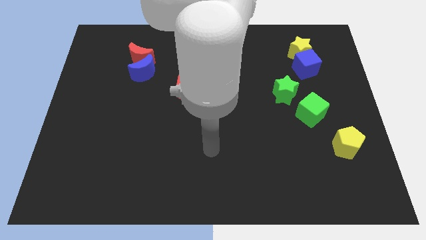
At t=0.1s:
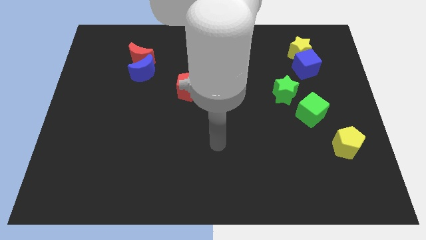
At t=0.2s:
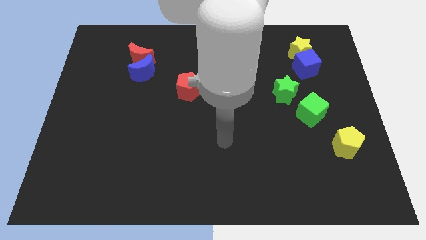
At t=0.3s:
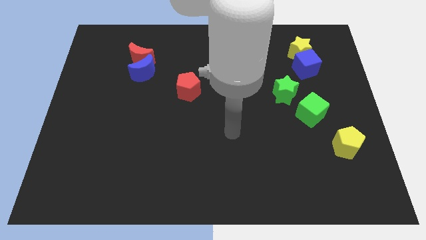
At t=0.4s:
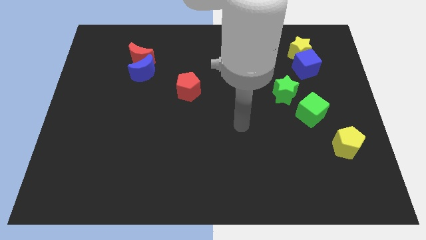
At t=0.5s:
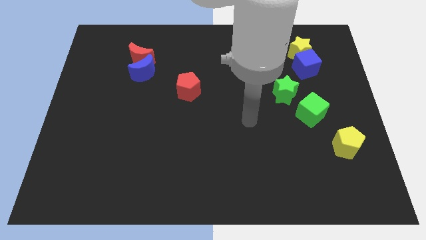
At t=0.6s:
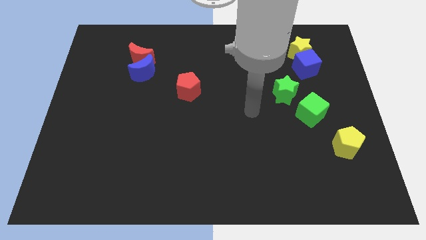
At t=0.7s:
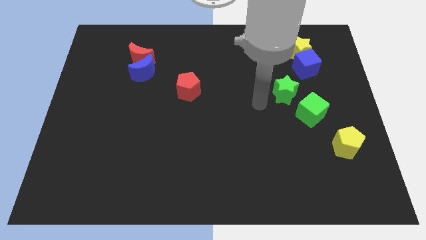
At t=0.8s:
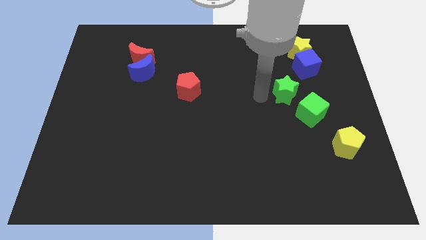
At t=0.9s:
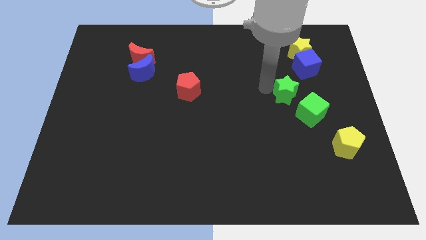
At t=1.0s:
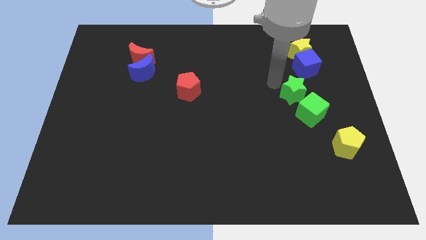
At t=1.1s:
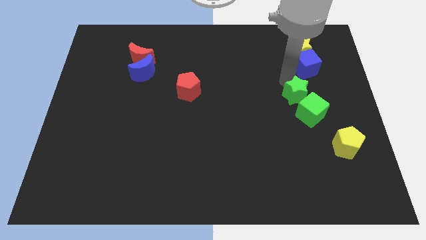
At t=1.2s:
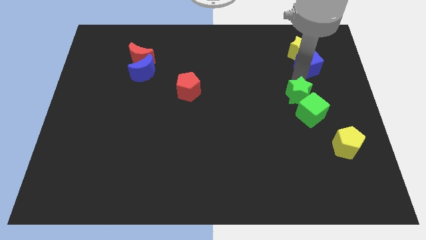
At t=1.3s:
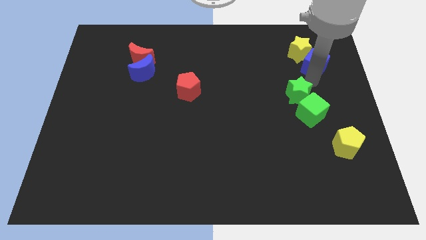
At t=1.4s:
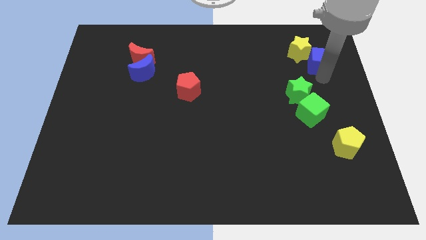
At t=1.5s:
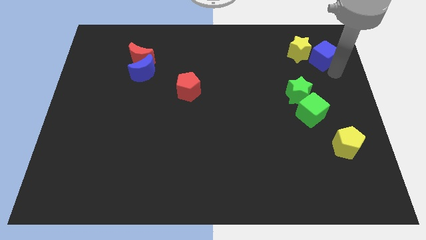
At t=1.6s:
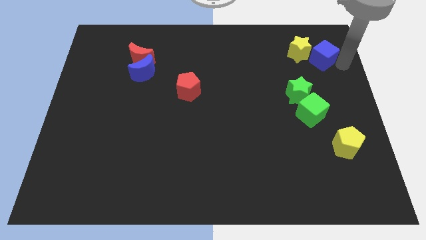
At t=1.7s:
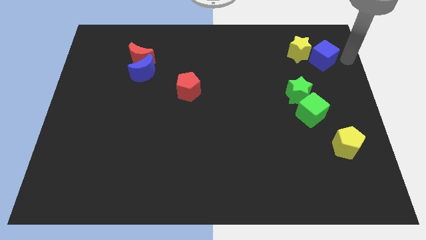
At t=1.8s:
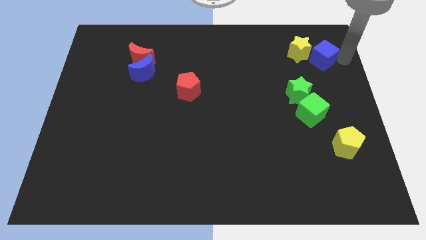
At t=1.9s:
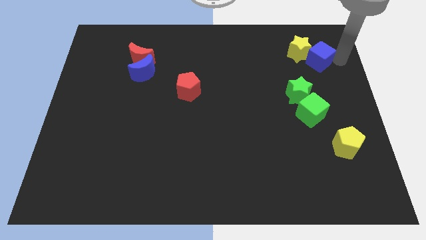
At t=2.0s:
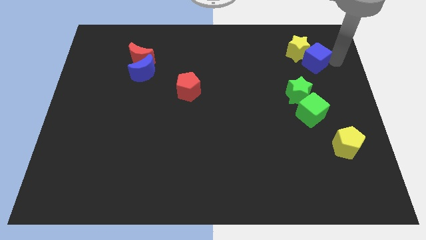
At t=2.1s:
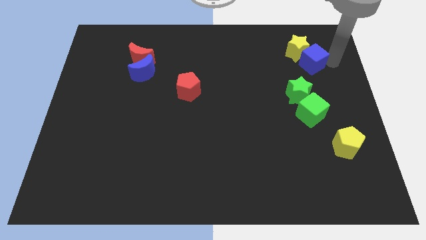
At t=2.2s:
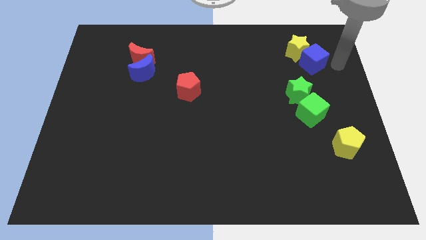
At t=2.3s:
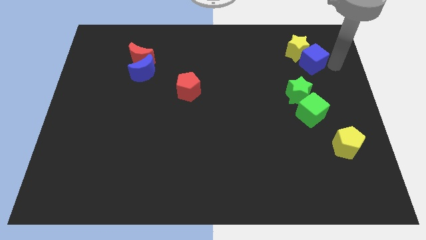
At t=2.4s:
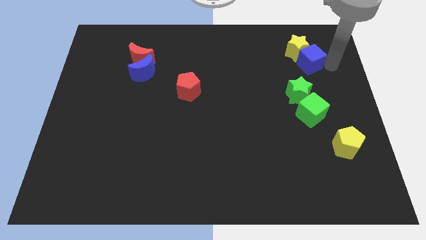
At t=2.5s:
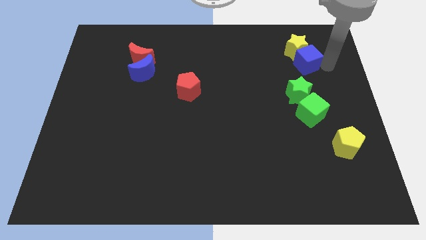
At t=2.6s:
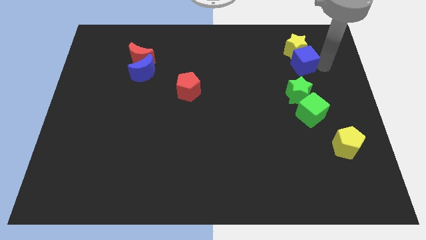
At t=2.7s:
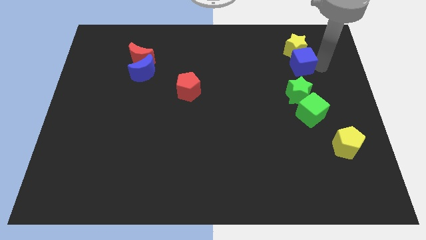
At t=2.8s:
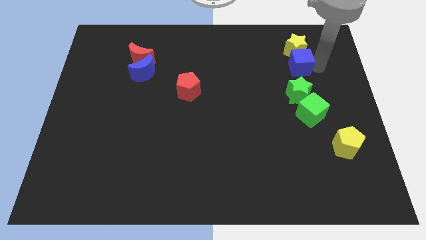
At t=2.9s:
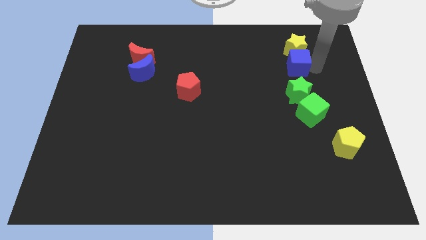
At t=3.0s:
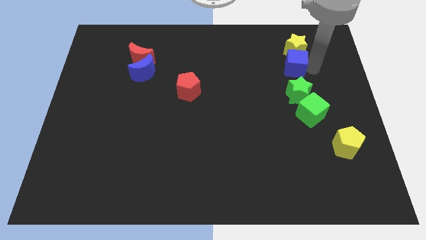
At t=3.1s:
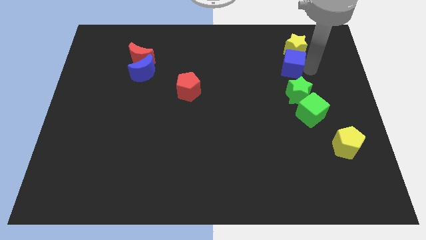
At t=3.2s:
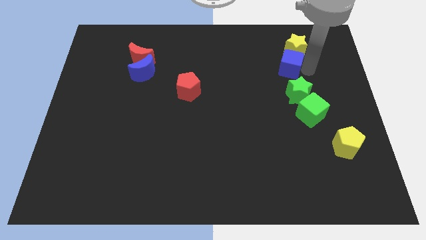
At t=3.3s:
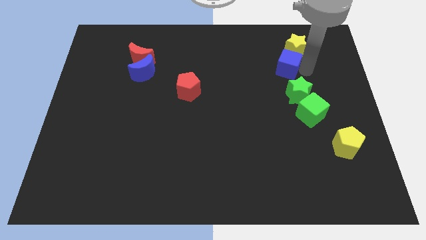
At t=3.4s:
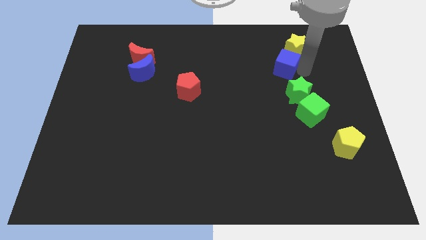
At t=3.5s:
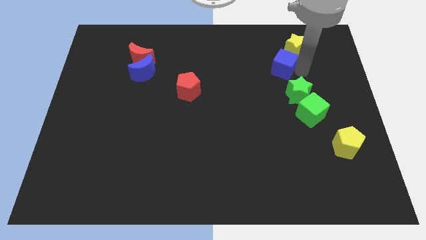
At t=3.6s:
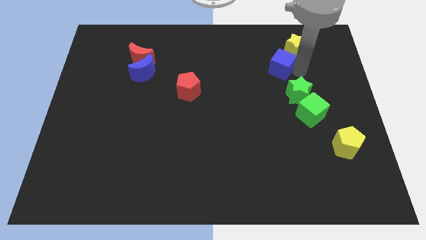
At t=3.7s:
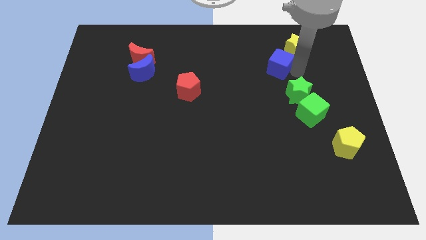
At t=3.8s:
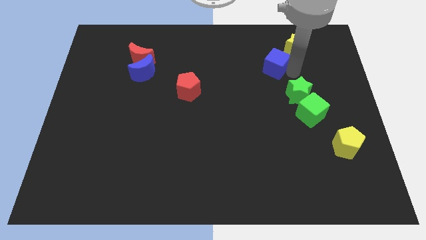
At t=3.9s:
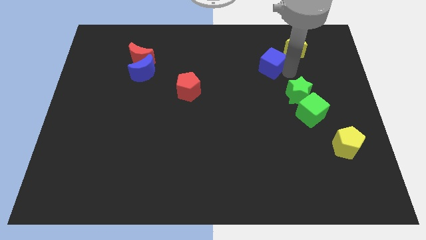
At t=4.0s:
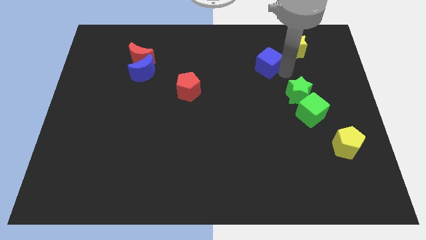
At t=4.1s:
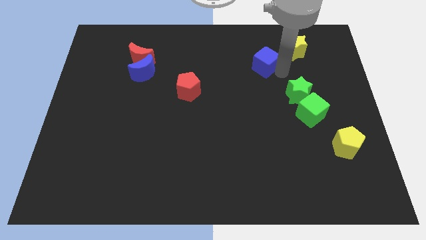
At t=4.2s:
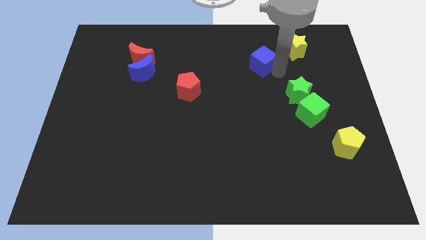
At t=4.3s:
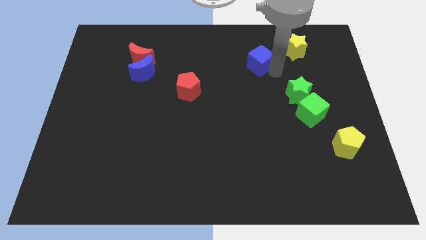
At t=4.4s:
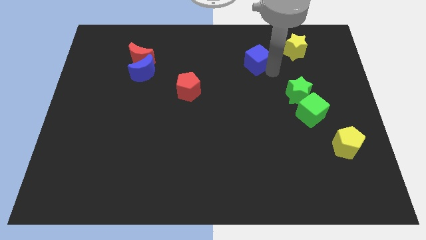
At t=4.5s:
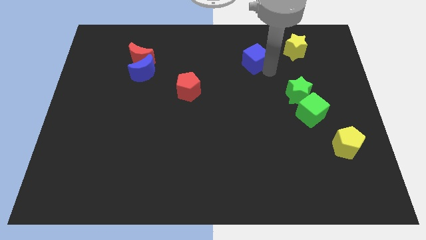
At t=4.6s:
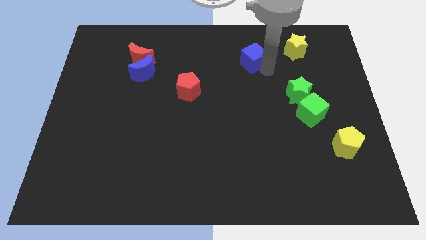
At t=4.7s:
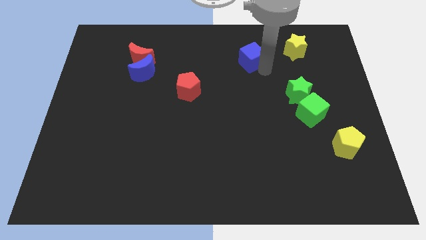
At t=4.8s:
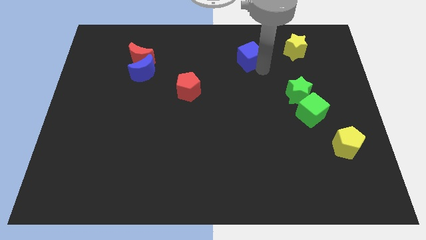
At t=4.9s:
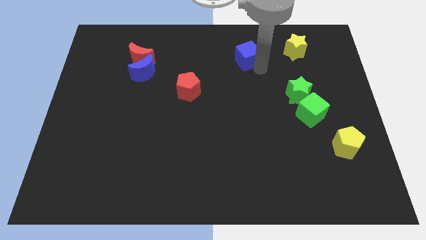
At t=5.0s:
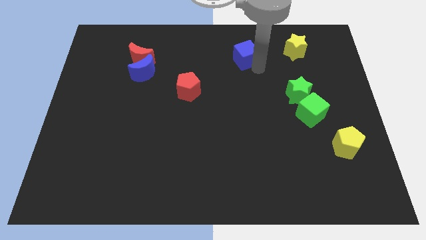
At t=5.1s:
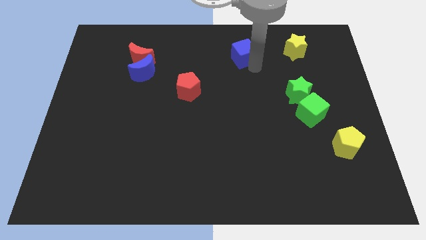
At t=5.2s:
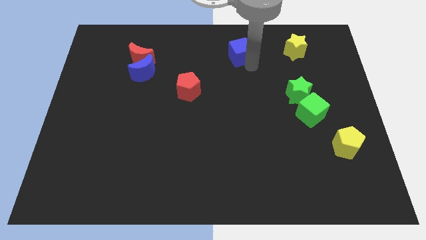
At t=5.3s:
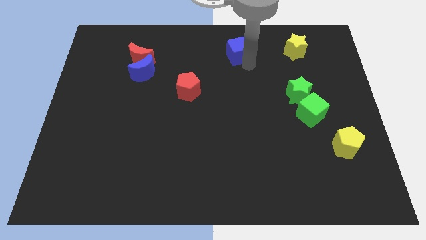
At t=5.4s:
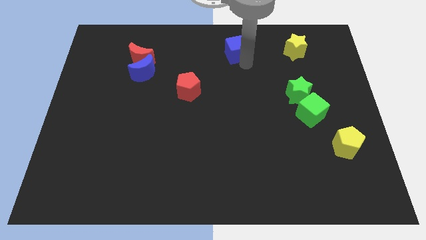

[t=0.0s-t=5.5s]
push the blue cube to the top

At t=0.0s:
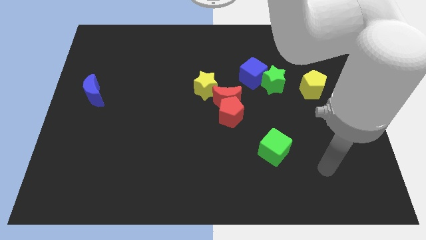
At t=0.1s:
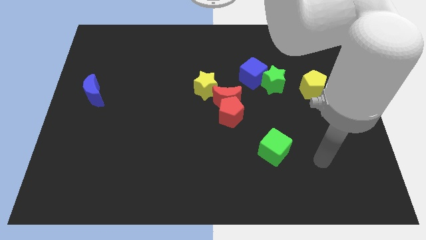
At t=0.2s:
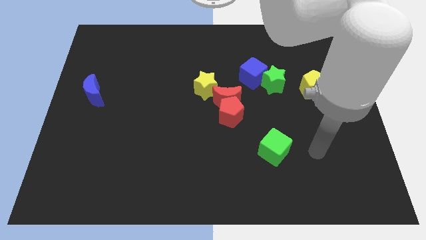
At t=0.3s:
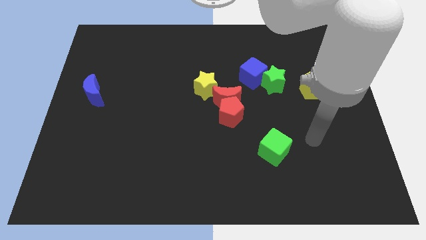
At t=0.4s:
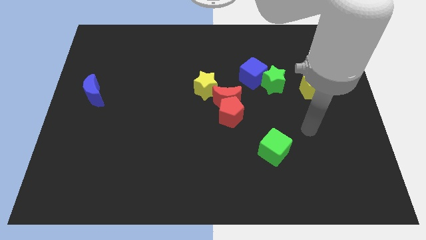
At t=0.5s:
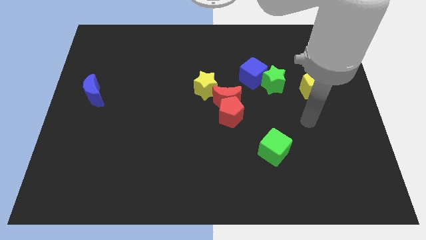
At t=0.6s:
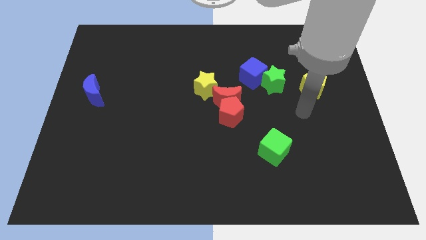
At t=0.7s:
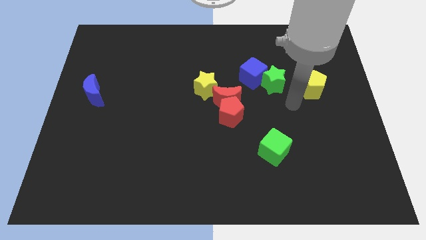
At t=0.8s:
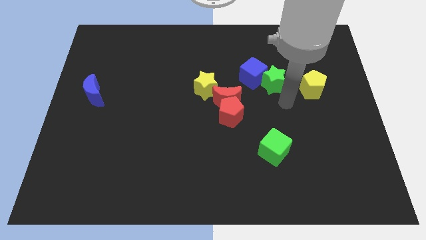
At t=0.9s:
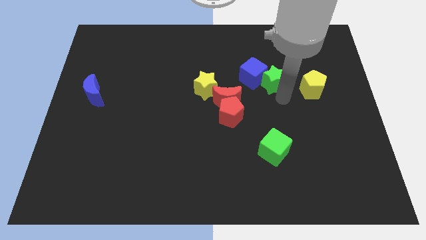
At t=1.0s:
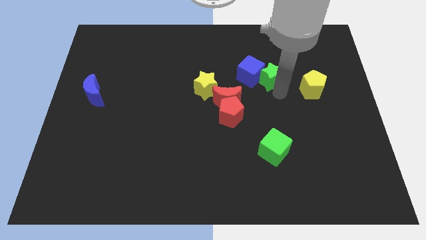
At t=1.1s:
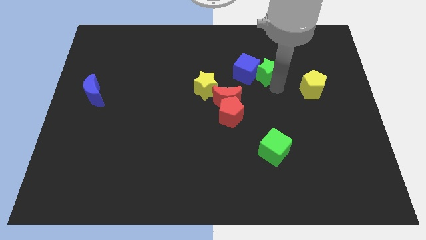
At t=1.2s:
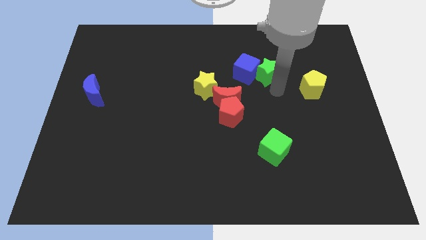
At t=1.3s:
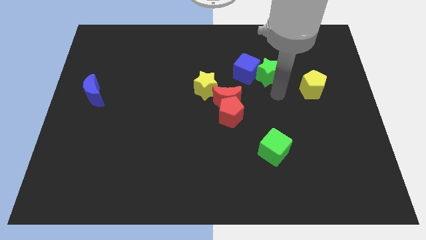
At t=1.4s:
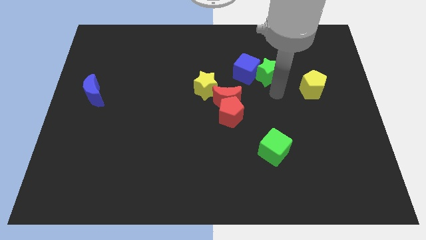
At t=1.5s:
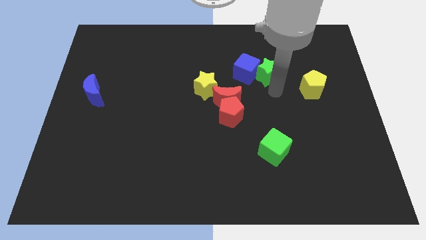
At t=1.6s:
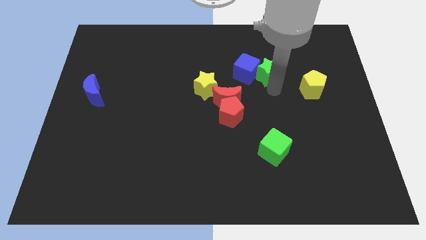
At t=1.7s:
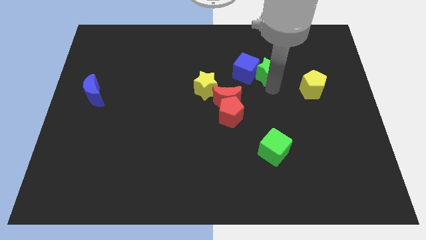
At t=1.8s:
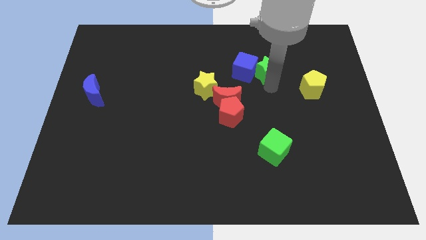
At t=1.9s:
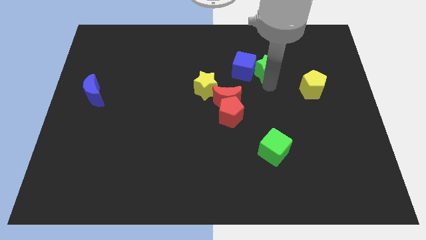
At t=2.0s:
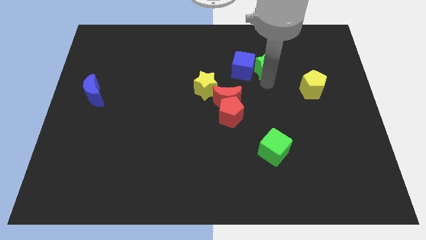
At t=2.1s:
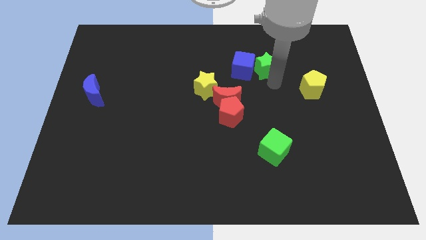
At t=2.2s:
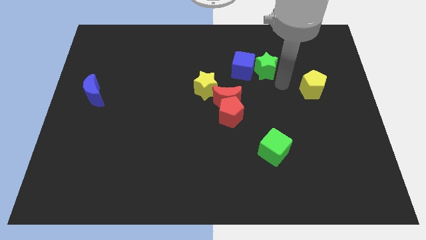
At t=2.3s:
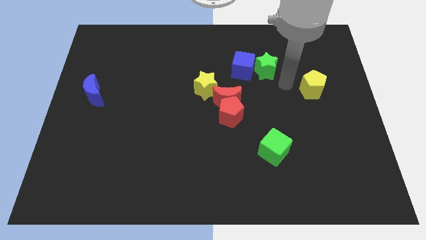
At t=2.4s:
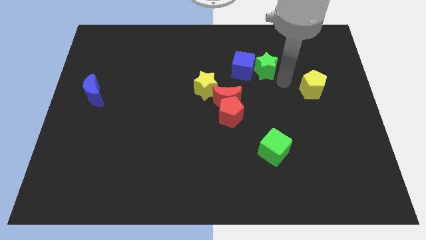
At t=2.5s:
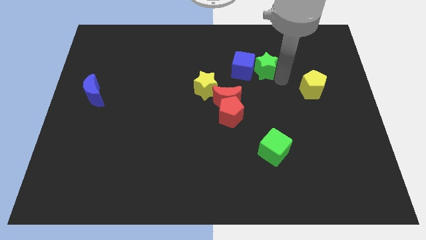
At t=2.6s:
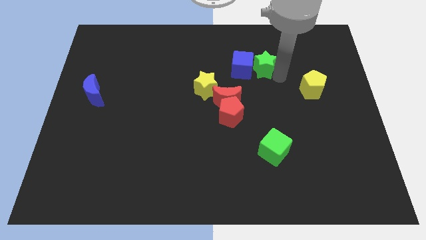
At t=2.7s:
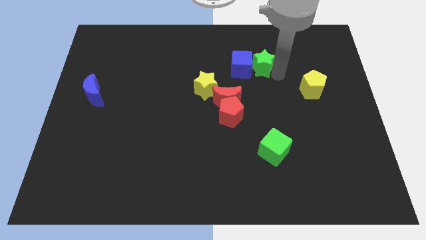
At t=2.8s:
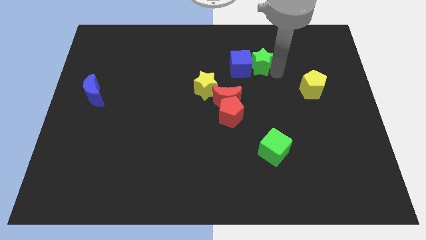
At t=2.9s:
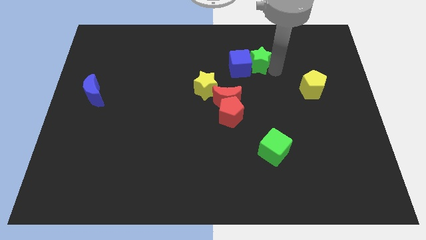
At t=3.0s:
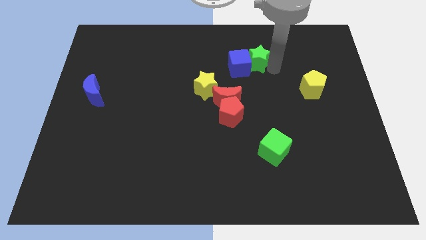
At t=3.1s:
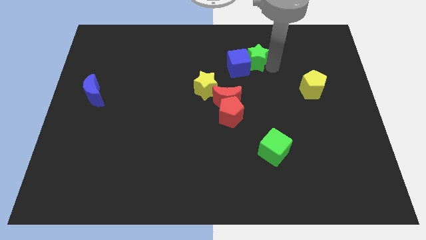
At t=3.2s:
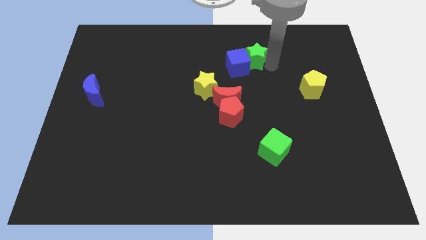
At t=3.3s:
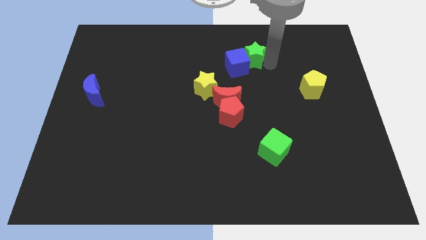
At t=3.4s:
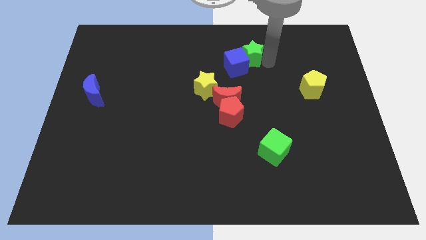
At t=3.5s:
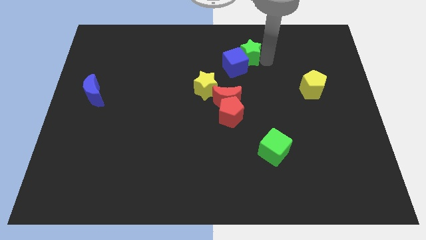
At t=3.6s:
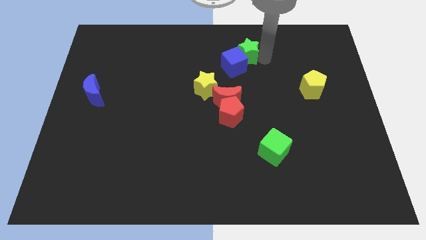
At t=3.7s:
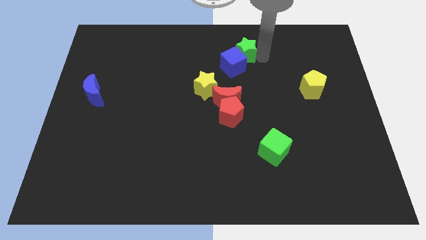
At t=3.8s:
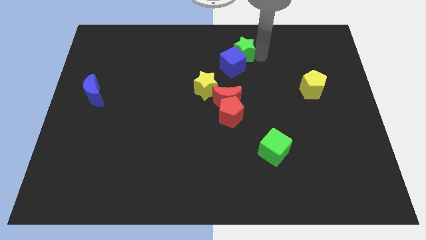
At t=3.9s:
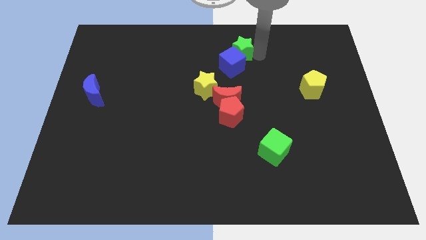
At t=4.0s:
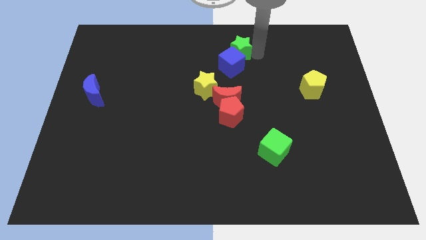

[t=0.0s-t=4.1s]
move the green star to the top side
